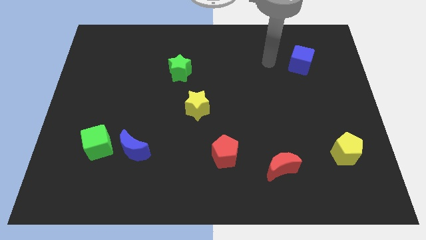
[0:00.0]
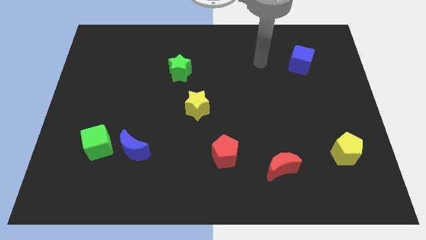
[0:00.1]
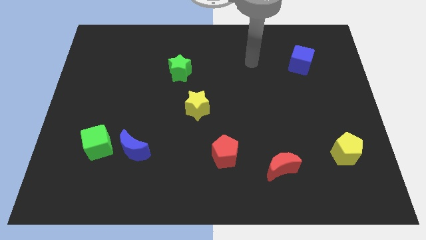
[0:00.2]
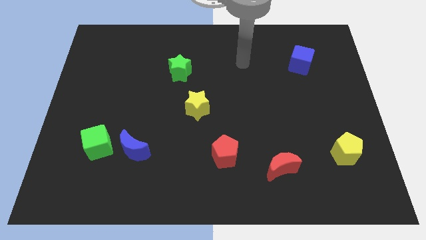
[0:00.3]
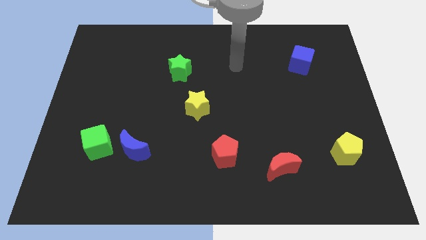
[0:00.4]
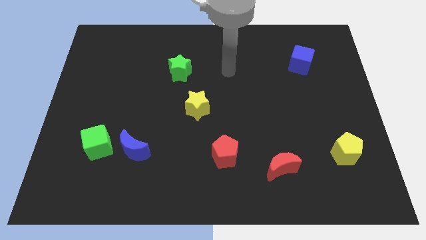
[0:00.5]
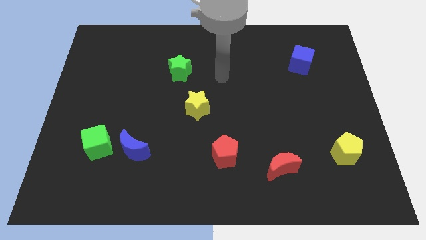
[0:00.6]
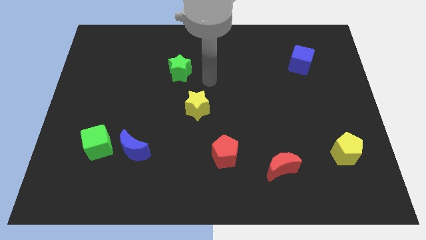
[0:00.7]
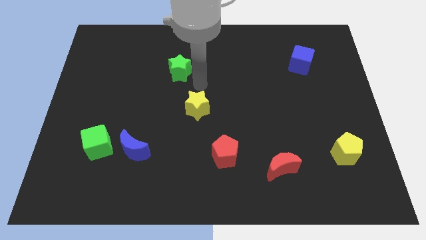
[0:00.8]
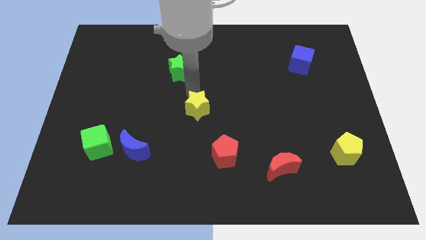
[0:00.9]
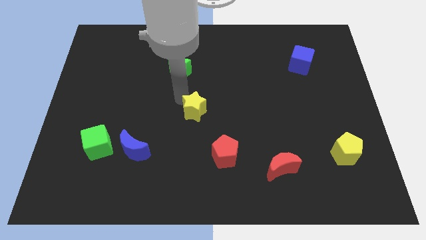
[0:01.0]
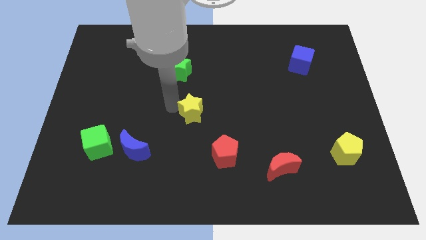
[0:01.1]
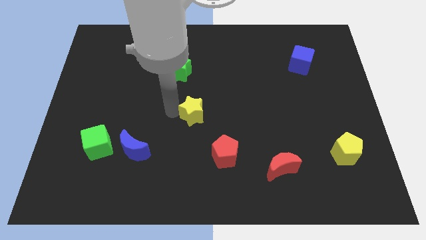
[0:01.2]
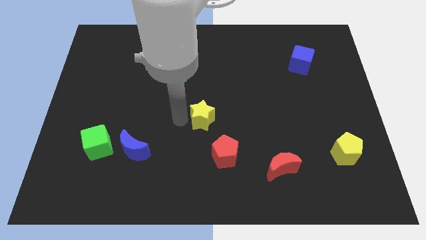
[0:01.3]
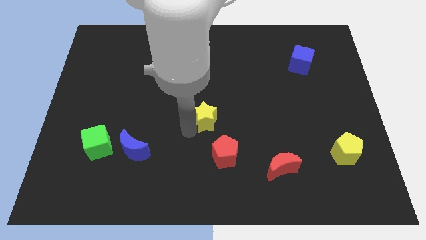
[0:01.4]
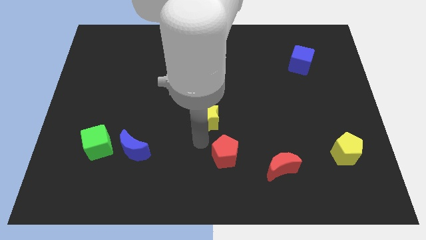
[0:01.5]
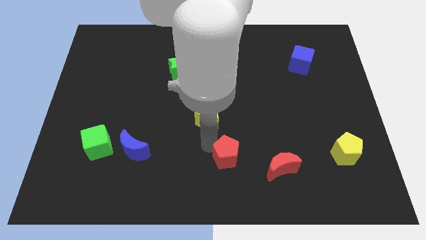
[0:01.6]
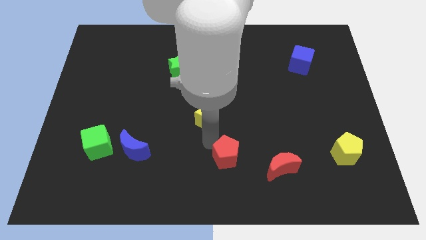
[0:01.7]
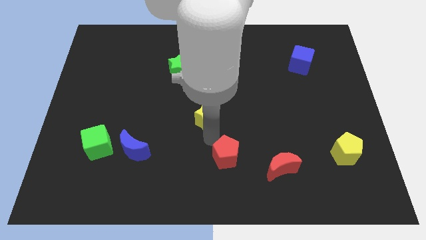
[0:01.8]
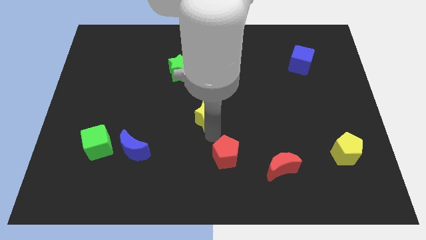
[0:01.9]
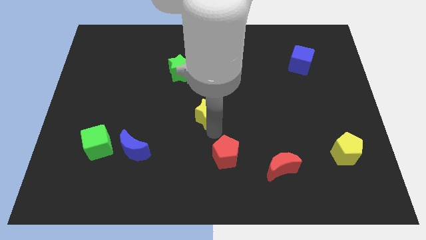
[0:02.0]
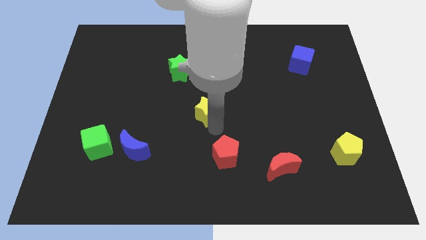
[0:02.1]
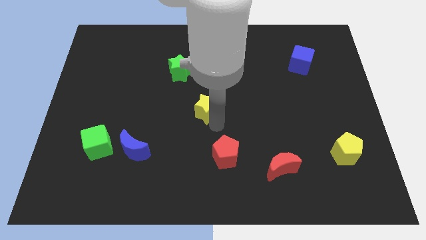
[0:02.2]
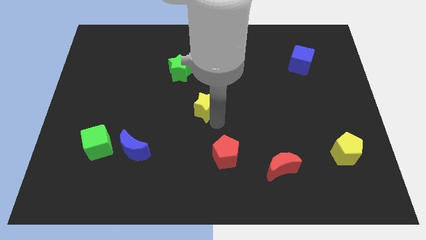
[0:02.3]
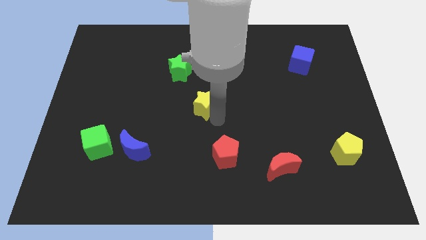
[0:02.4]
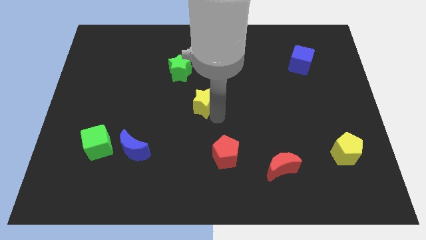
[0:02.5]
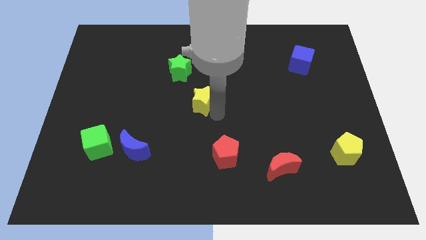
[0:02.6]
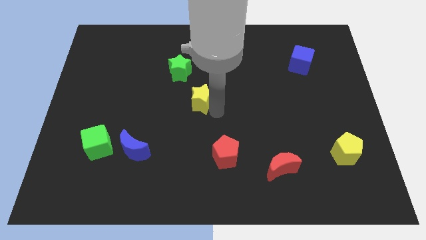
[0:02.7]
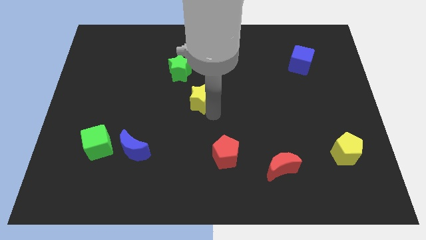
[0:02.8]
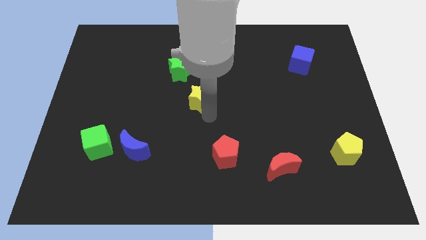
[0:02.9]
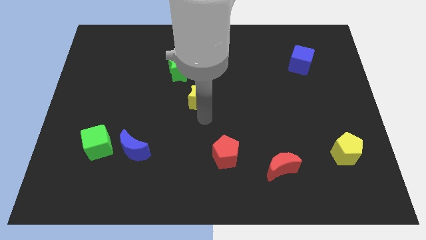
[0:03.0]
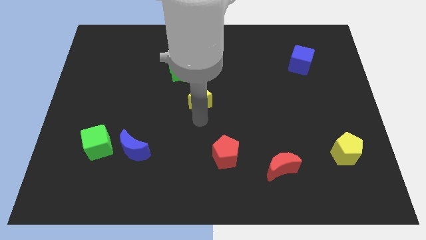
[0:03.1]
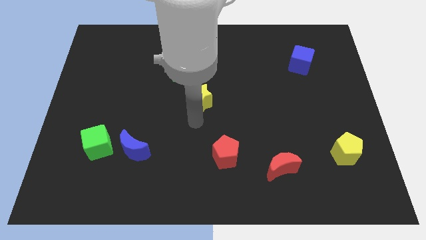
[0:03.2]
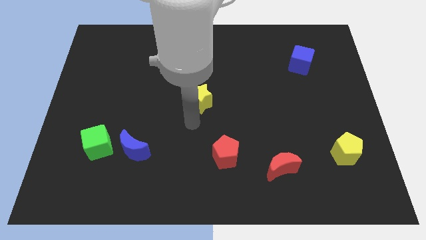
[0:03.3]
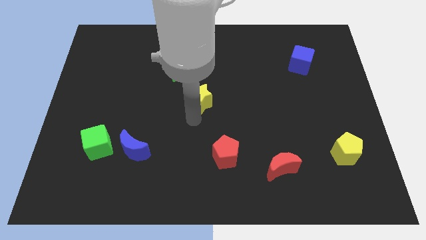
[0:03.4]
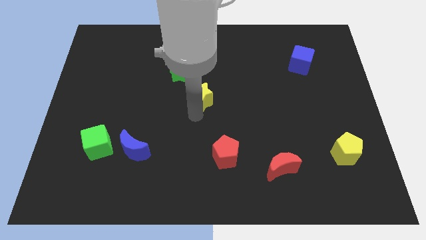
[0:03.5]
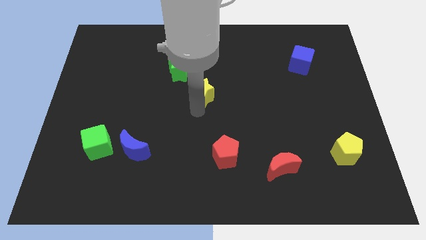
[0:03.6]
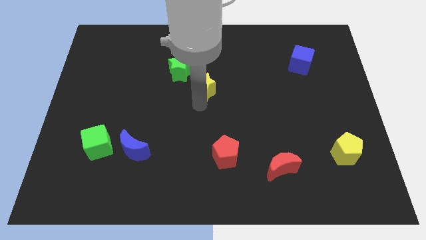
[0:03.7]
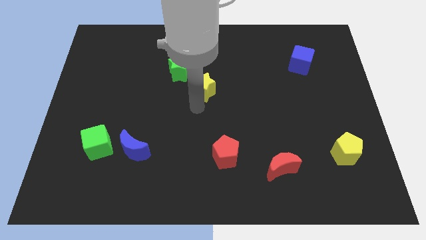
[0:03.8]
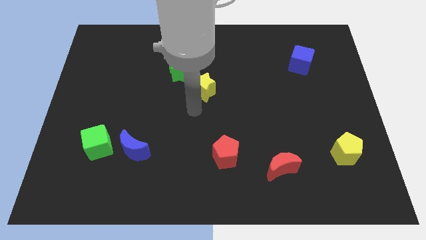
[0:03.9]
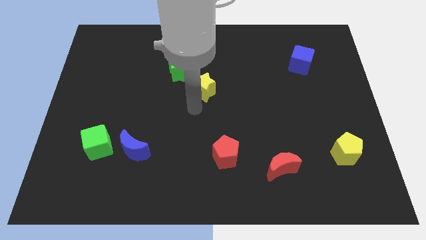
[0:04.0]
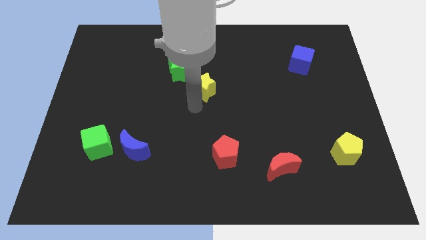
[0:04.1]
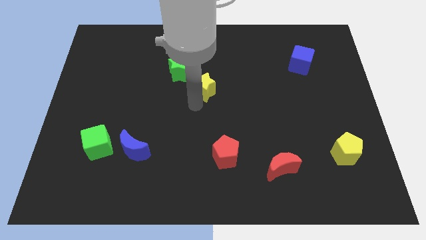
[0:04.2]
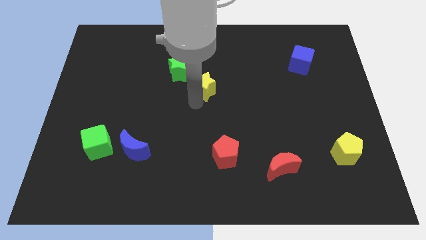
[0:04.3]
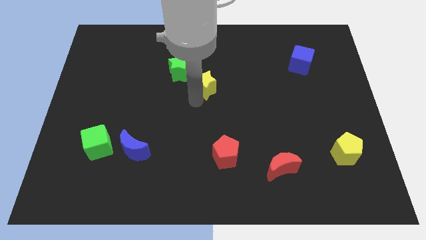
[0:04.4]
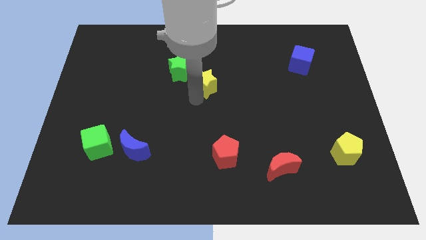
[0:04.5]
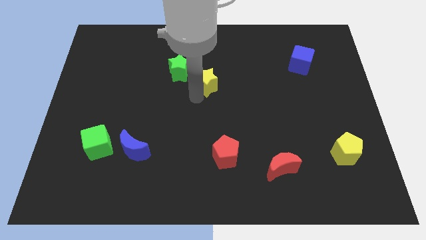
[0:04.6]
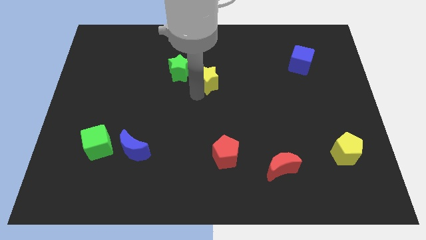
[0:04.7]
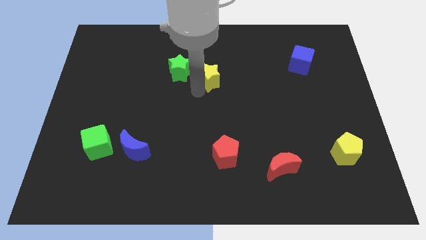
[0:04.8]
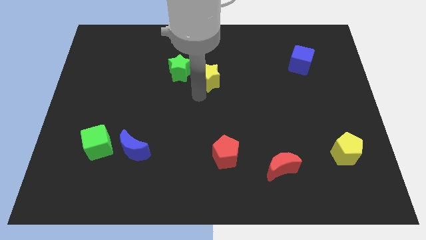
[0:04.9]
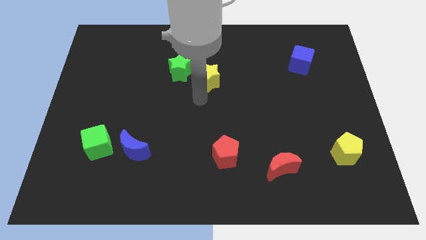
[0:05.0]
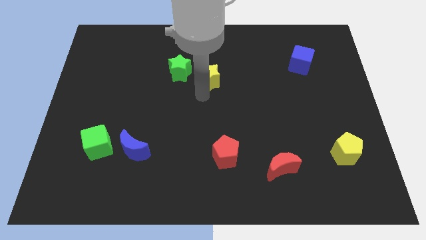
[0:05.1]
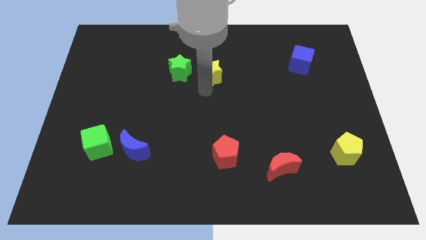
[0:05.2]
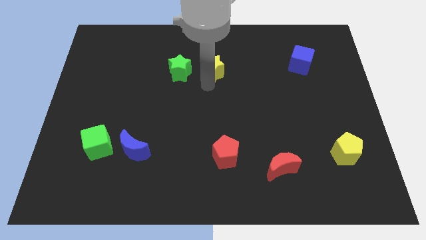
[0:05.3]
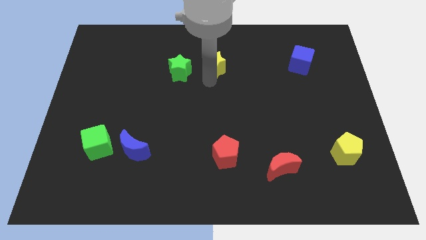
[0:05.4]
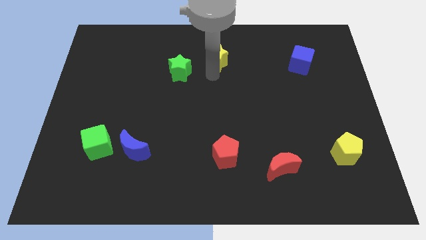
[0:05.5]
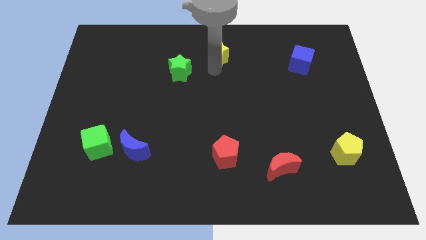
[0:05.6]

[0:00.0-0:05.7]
push the yellow star to the top side

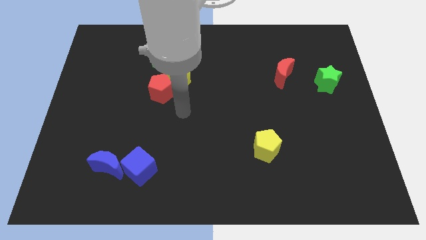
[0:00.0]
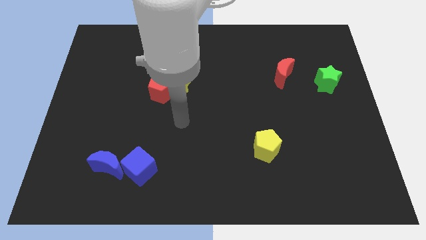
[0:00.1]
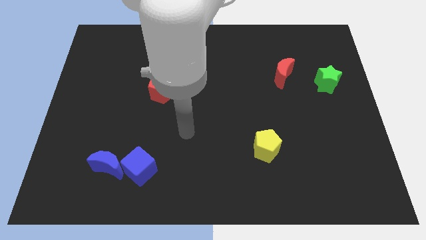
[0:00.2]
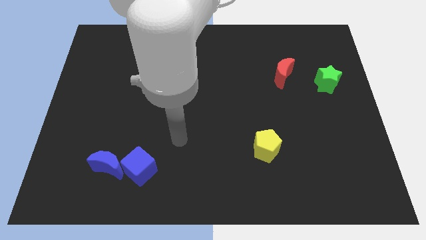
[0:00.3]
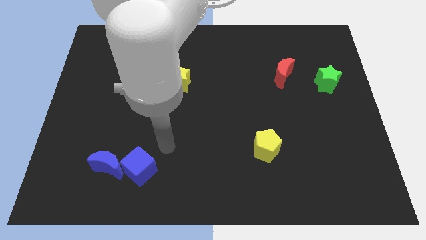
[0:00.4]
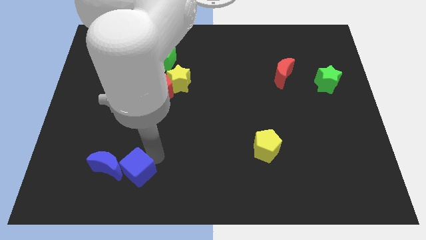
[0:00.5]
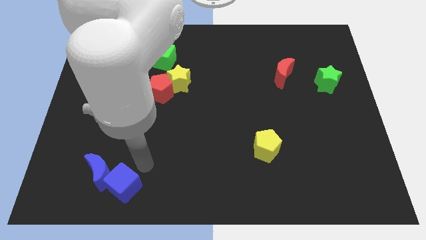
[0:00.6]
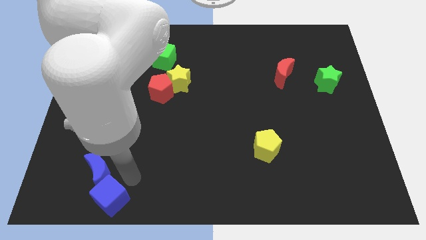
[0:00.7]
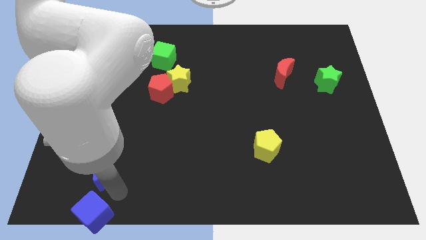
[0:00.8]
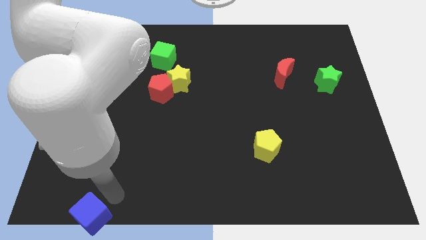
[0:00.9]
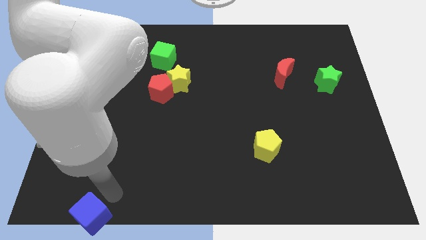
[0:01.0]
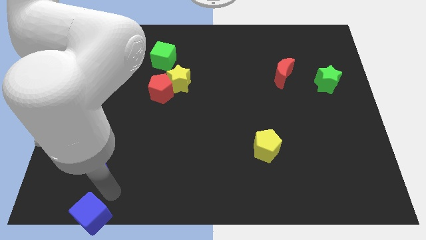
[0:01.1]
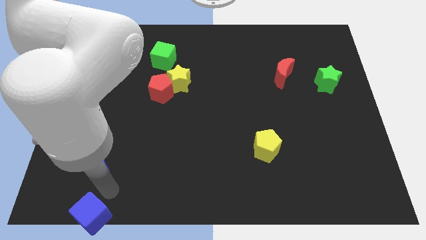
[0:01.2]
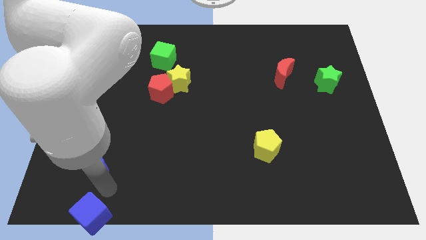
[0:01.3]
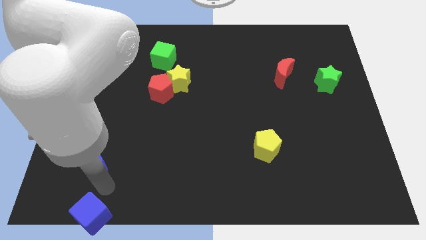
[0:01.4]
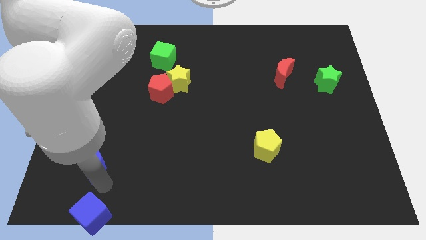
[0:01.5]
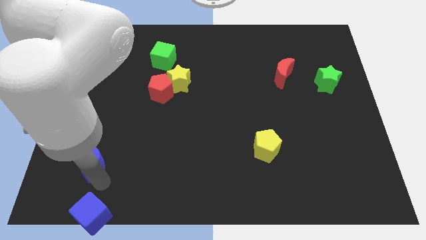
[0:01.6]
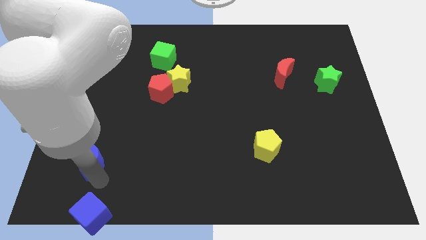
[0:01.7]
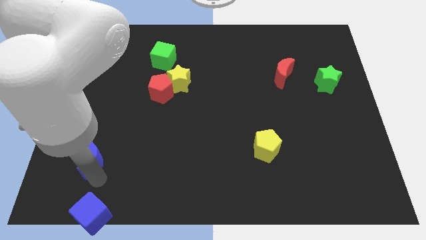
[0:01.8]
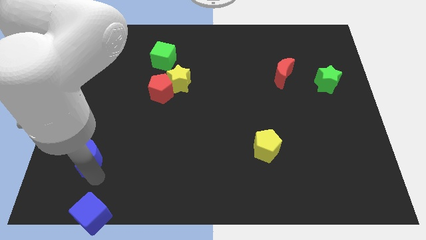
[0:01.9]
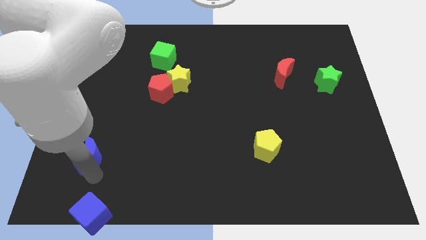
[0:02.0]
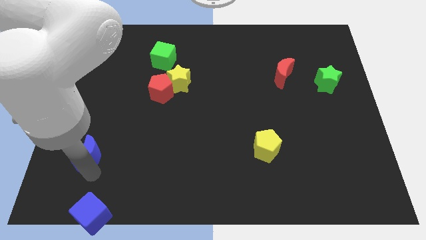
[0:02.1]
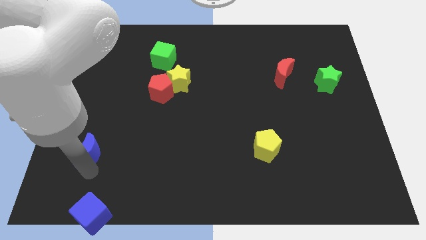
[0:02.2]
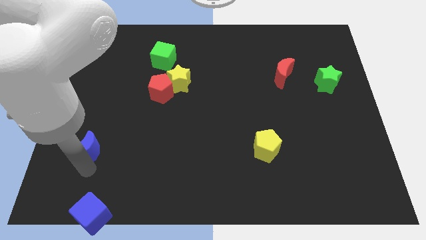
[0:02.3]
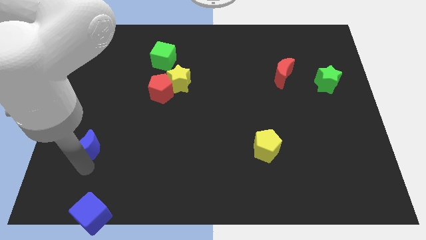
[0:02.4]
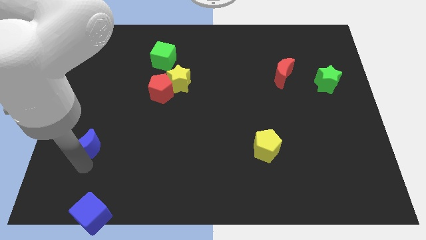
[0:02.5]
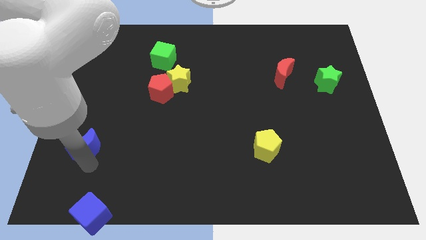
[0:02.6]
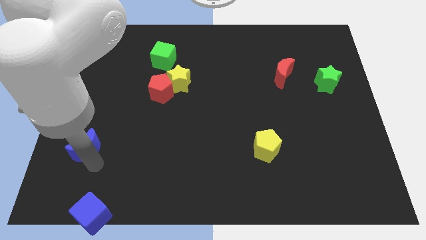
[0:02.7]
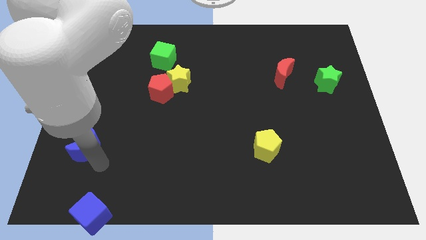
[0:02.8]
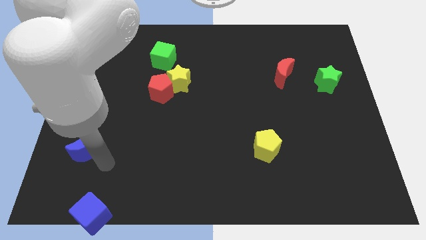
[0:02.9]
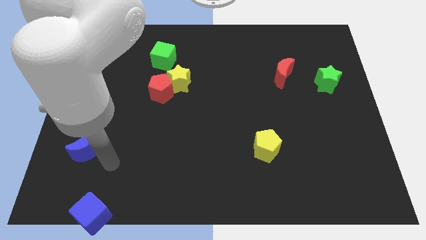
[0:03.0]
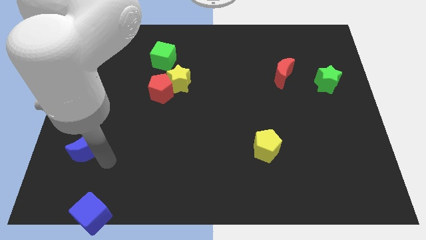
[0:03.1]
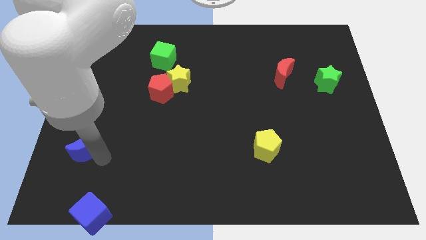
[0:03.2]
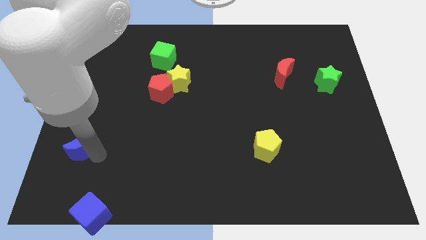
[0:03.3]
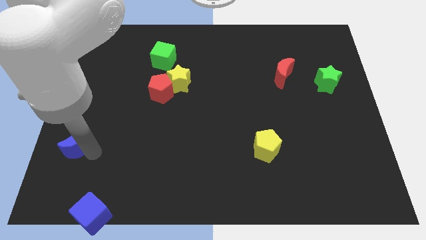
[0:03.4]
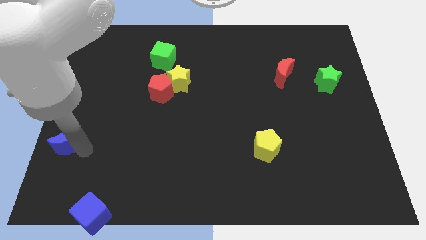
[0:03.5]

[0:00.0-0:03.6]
slide the blue moon to the left side of the board
